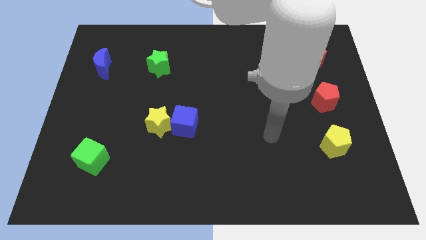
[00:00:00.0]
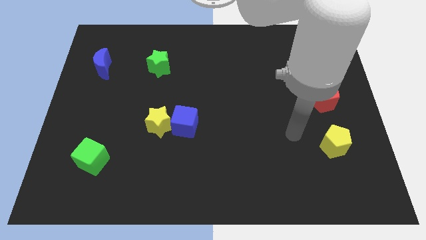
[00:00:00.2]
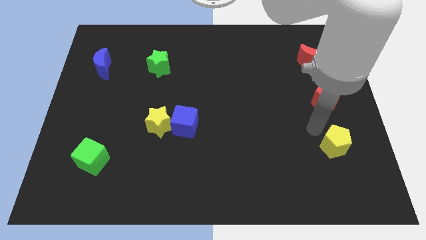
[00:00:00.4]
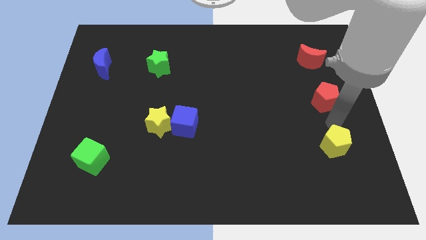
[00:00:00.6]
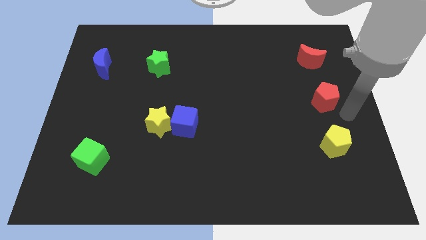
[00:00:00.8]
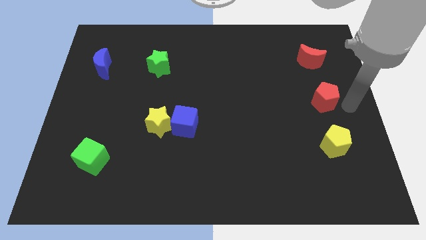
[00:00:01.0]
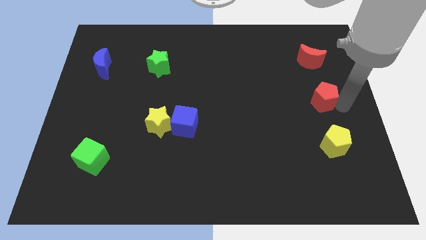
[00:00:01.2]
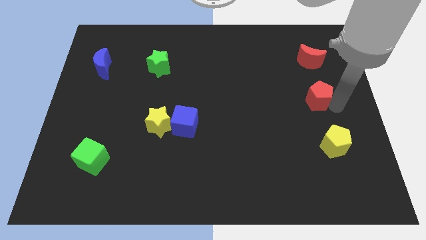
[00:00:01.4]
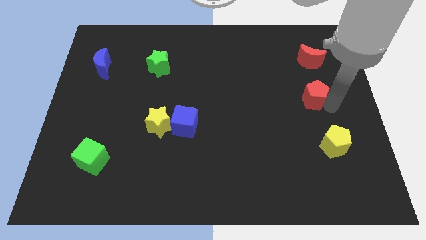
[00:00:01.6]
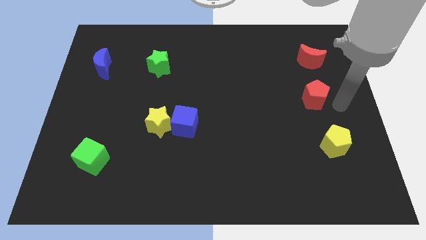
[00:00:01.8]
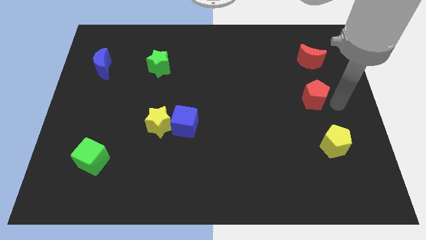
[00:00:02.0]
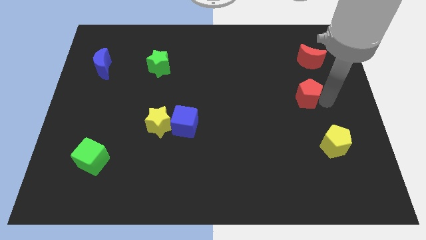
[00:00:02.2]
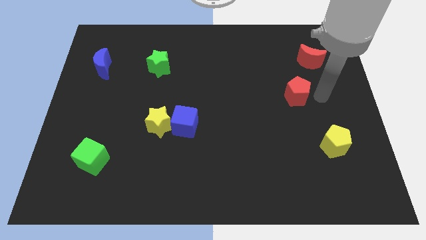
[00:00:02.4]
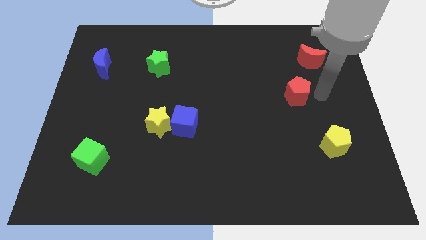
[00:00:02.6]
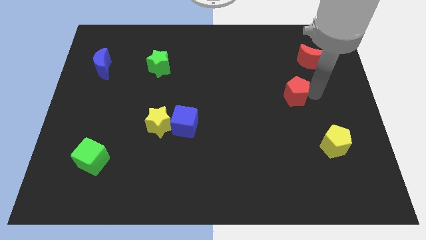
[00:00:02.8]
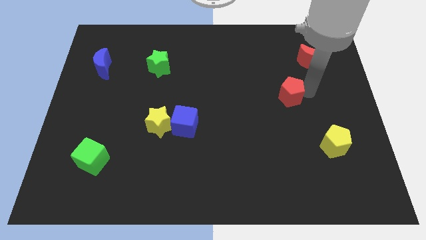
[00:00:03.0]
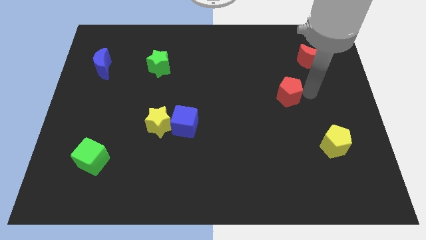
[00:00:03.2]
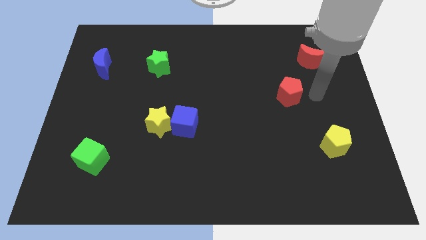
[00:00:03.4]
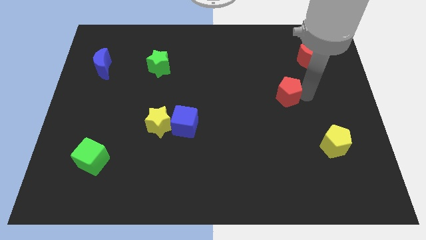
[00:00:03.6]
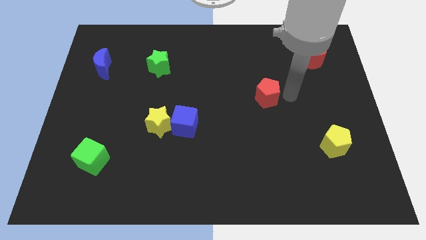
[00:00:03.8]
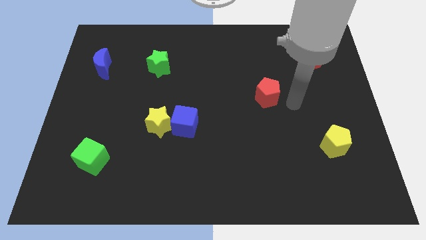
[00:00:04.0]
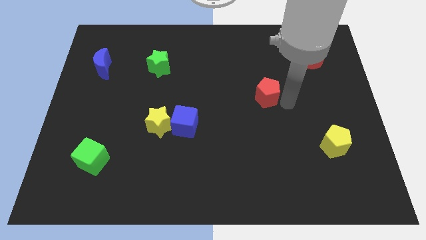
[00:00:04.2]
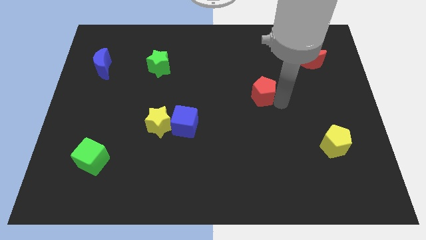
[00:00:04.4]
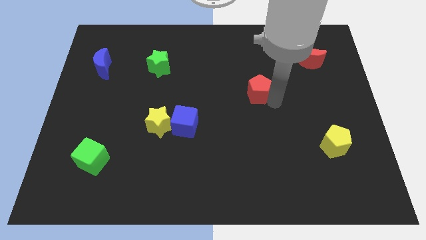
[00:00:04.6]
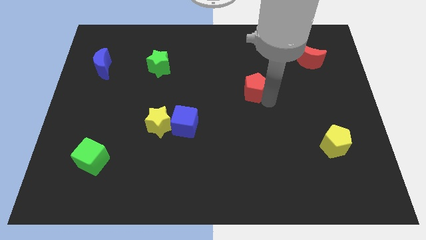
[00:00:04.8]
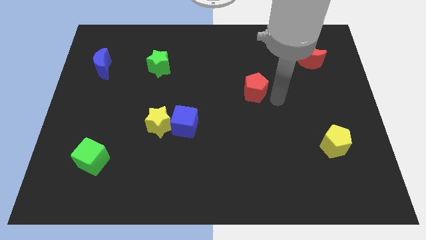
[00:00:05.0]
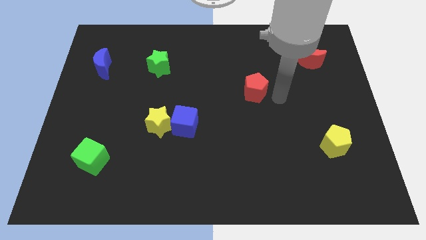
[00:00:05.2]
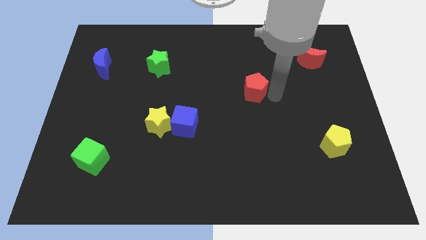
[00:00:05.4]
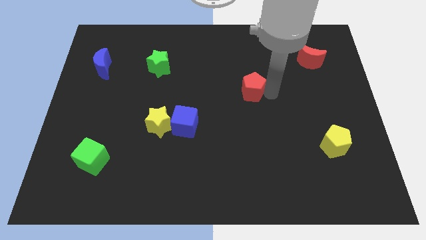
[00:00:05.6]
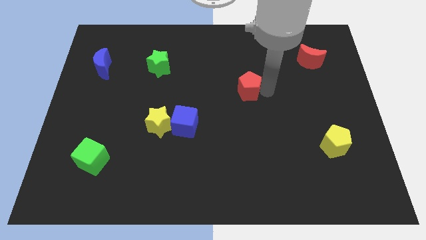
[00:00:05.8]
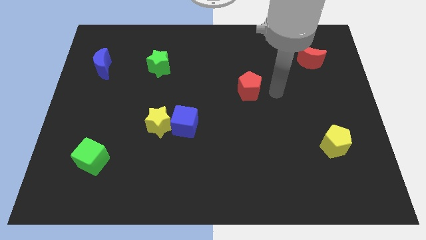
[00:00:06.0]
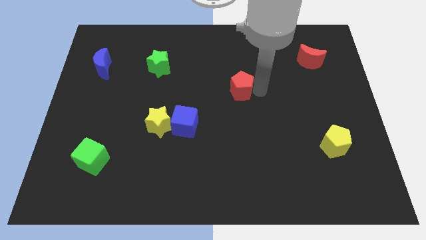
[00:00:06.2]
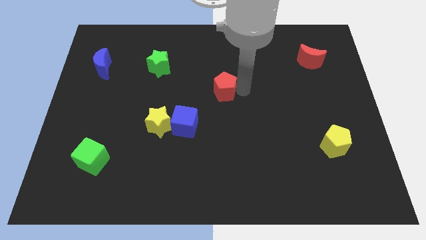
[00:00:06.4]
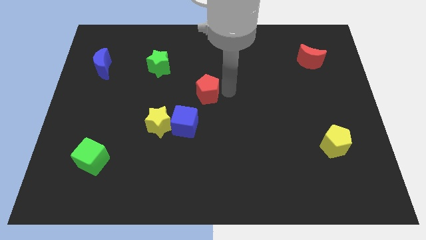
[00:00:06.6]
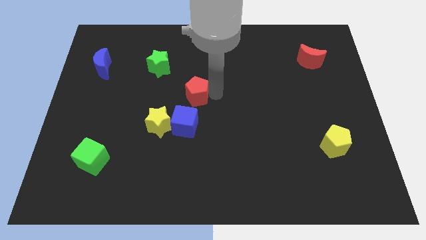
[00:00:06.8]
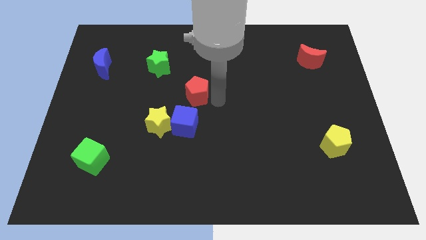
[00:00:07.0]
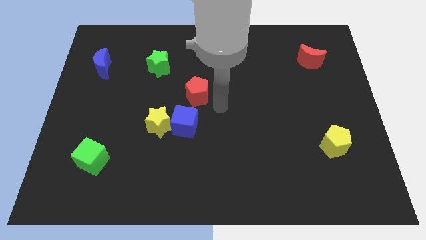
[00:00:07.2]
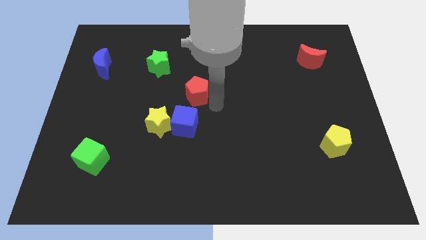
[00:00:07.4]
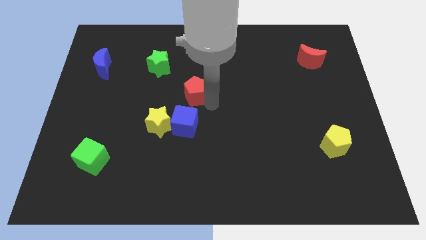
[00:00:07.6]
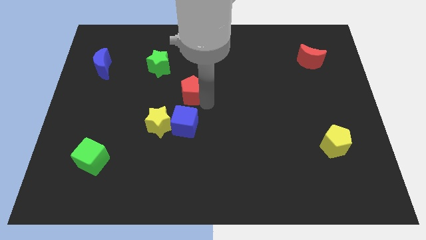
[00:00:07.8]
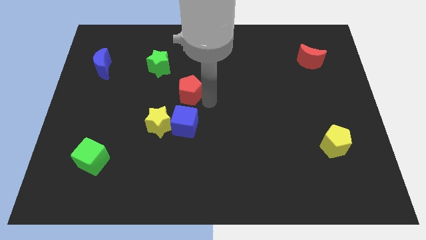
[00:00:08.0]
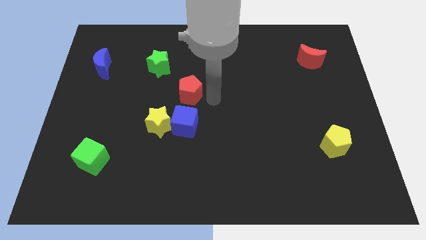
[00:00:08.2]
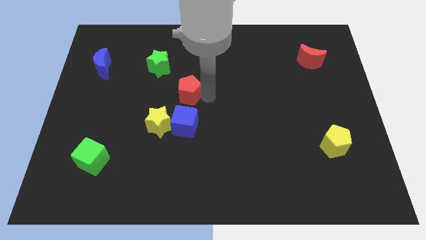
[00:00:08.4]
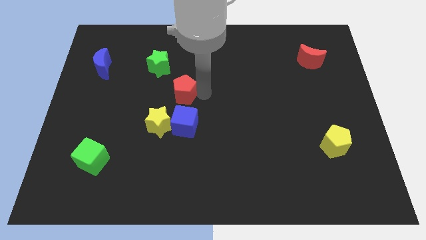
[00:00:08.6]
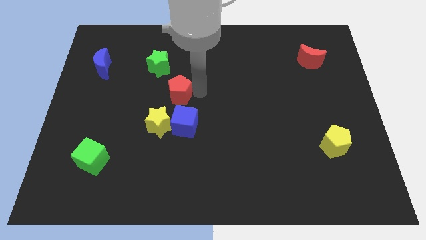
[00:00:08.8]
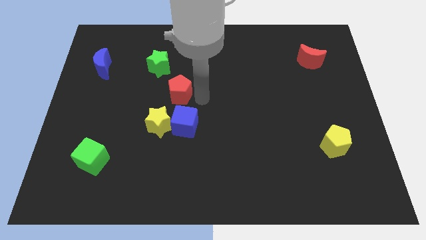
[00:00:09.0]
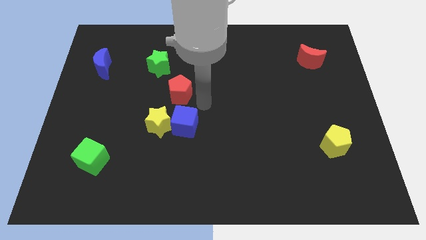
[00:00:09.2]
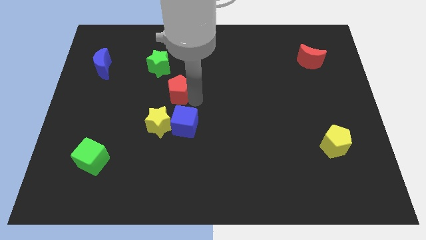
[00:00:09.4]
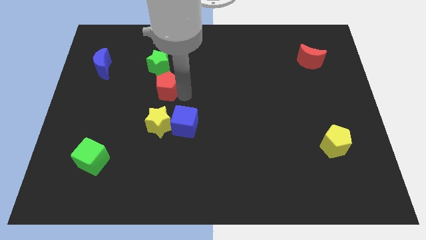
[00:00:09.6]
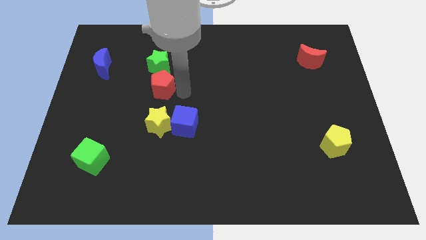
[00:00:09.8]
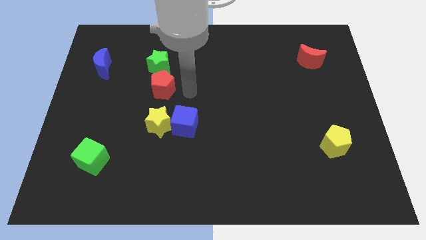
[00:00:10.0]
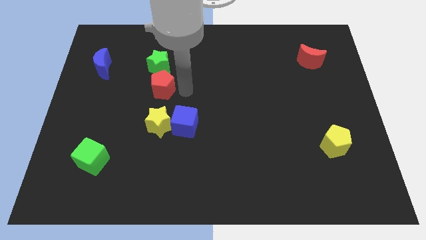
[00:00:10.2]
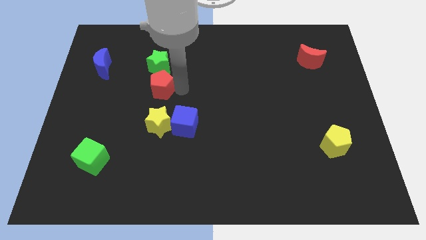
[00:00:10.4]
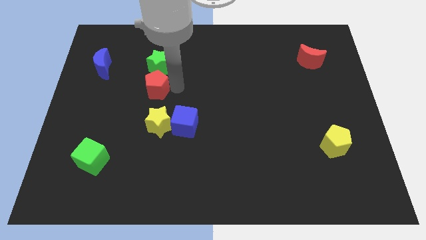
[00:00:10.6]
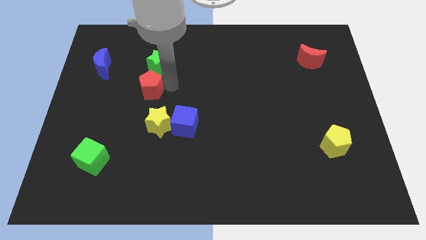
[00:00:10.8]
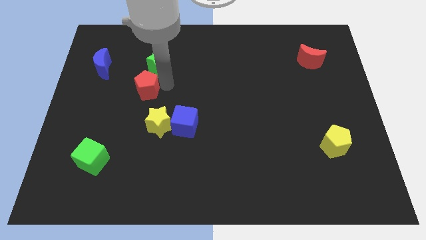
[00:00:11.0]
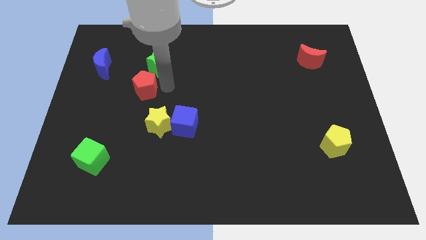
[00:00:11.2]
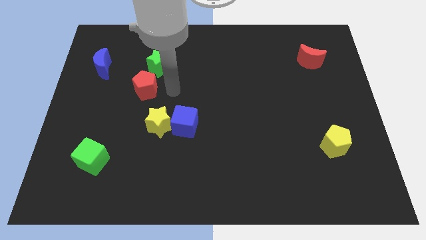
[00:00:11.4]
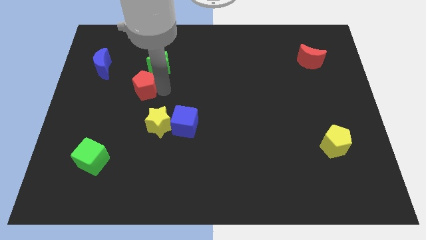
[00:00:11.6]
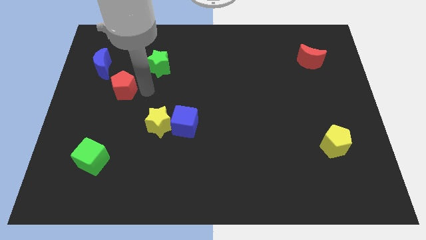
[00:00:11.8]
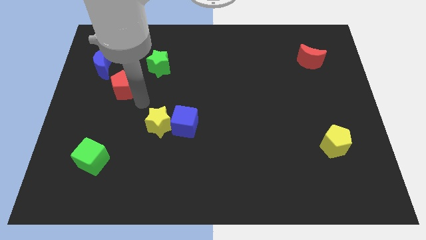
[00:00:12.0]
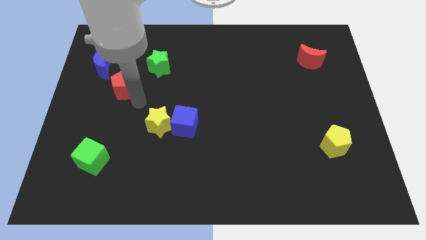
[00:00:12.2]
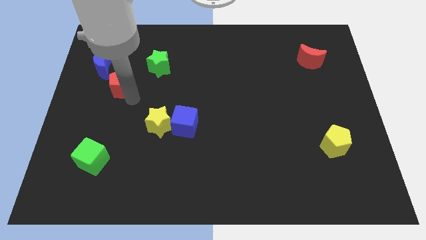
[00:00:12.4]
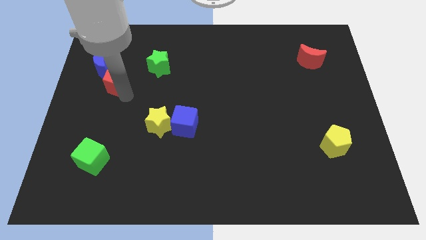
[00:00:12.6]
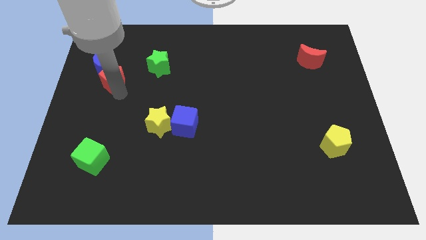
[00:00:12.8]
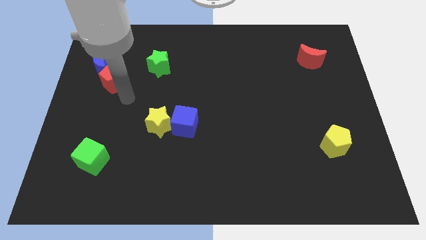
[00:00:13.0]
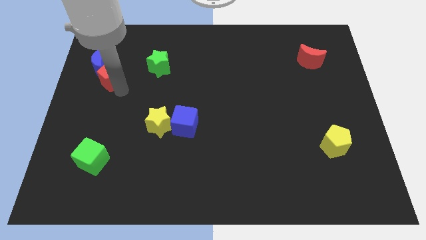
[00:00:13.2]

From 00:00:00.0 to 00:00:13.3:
put the red pentagon to the blue moon

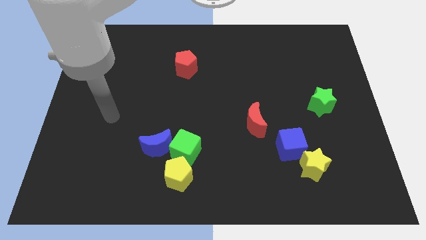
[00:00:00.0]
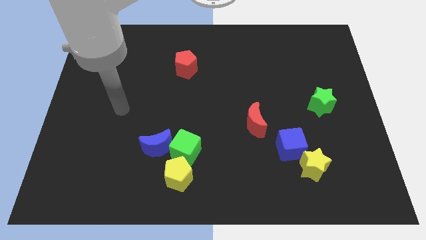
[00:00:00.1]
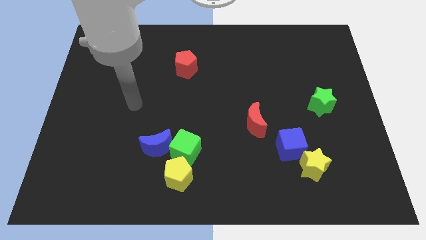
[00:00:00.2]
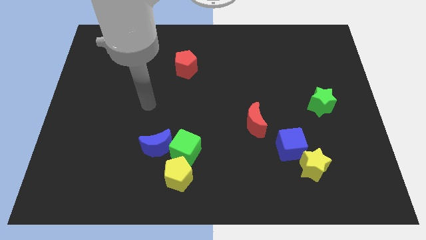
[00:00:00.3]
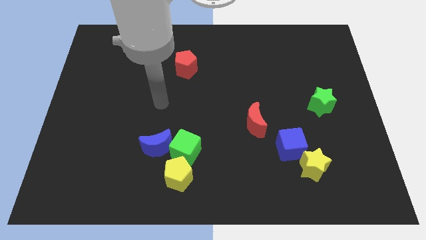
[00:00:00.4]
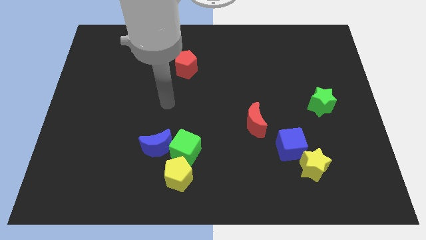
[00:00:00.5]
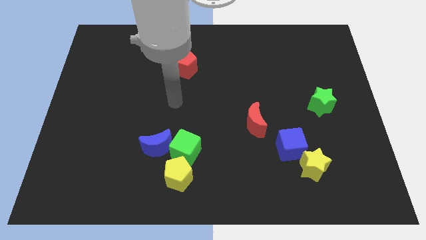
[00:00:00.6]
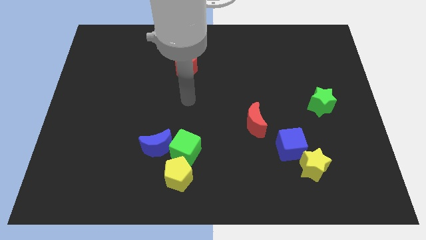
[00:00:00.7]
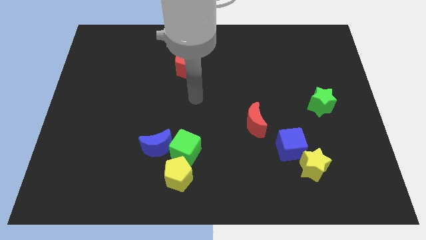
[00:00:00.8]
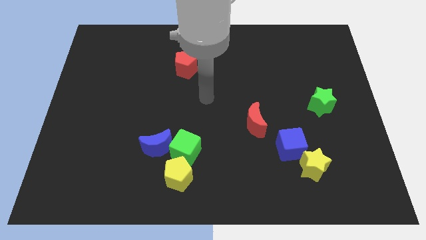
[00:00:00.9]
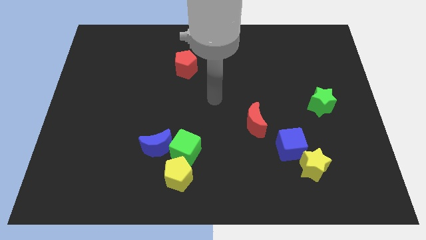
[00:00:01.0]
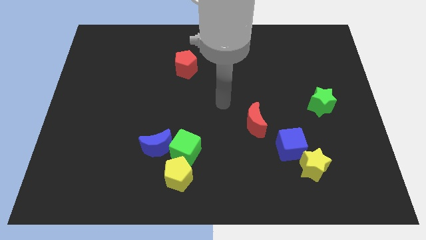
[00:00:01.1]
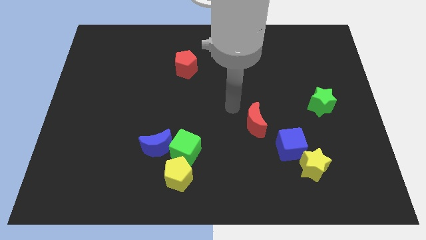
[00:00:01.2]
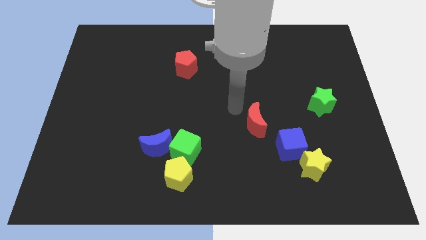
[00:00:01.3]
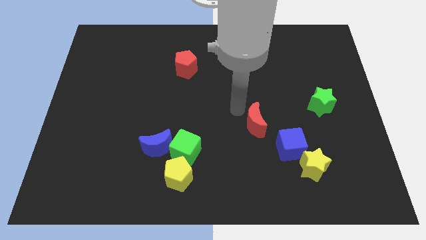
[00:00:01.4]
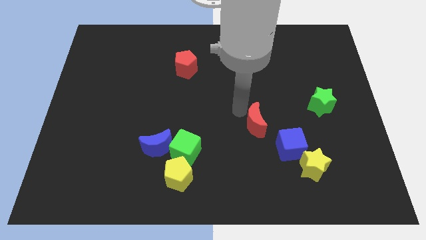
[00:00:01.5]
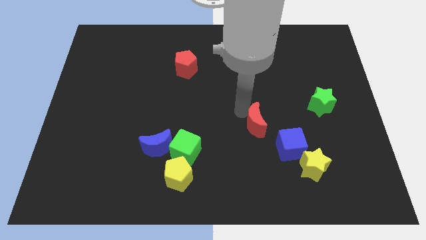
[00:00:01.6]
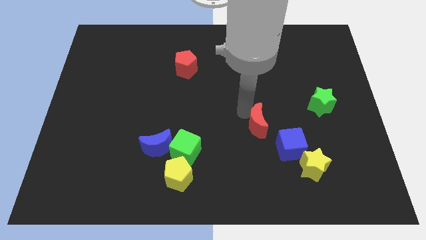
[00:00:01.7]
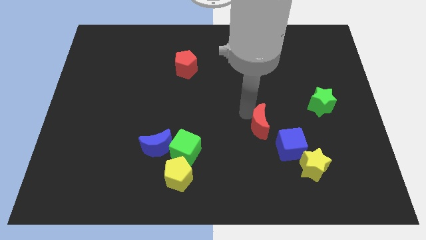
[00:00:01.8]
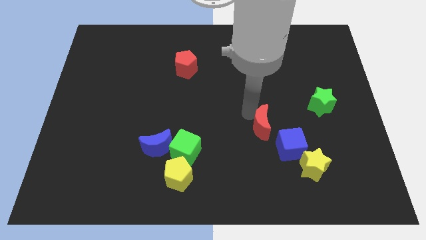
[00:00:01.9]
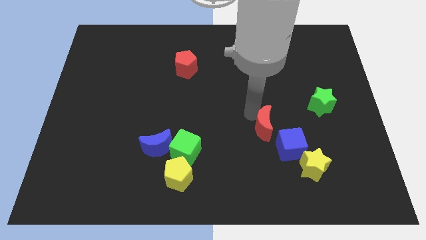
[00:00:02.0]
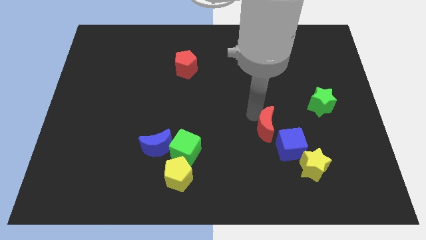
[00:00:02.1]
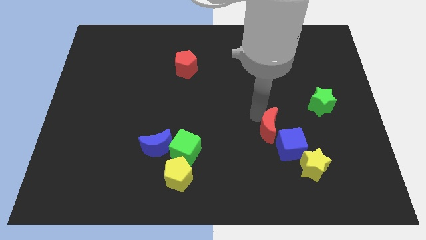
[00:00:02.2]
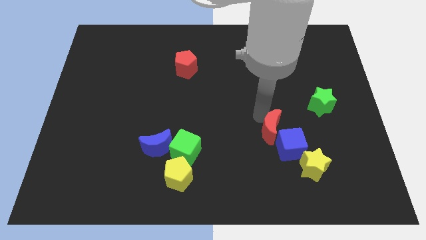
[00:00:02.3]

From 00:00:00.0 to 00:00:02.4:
put the red moon to the blue cube
